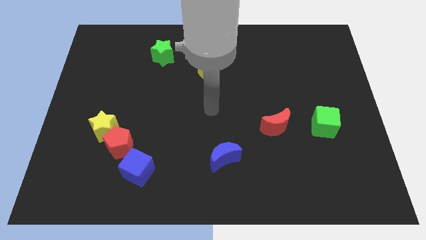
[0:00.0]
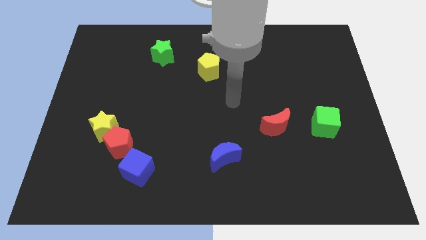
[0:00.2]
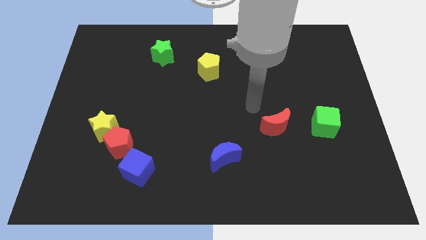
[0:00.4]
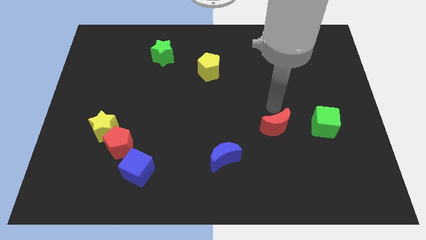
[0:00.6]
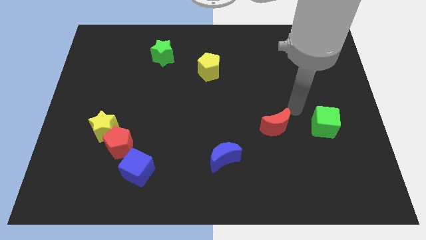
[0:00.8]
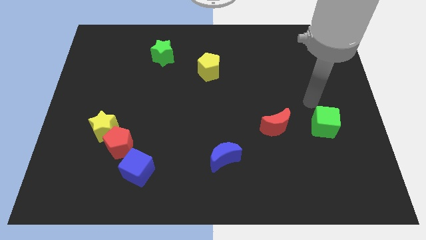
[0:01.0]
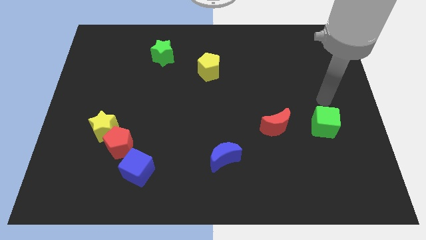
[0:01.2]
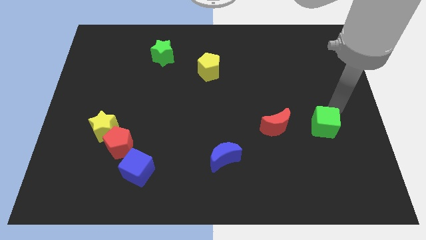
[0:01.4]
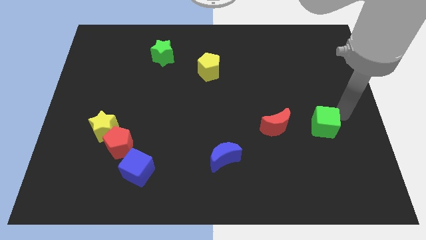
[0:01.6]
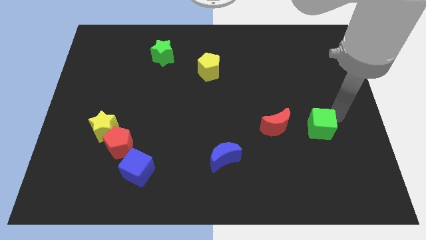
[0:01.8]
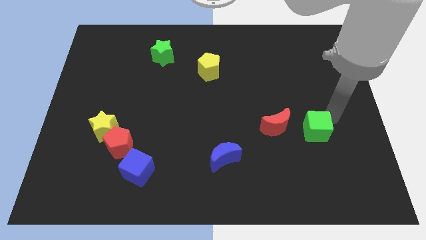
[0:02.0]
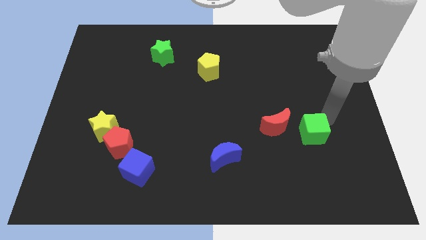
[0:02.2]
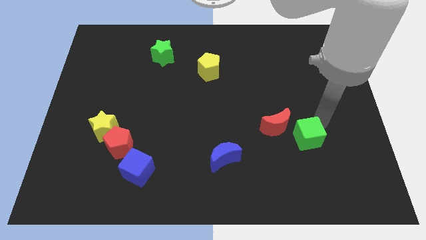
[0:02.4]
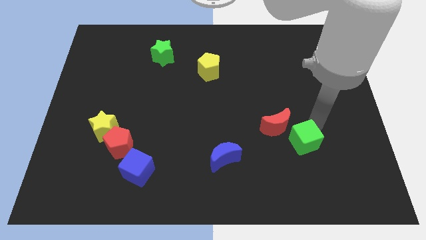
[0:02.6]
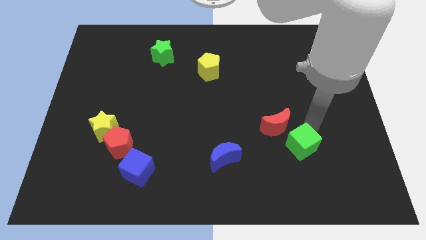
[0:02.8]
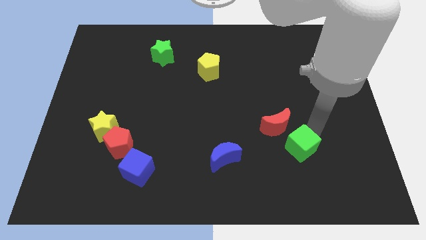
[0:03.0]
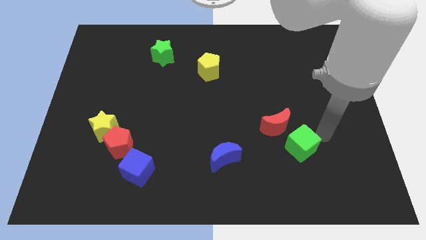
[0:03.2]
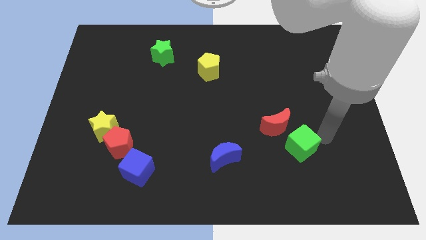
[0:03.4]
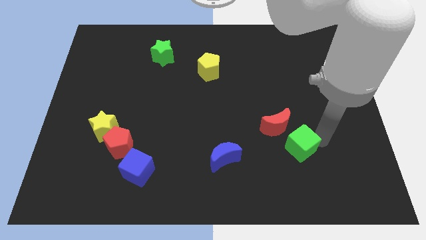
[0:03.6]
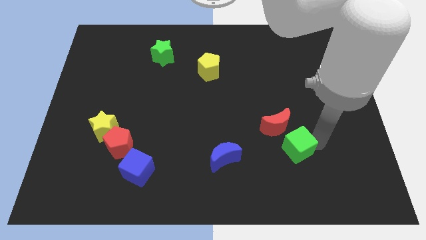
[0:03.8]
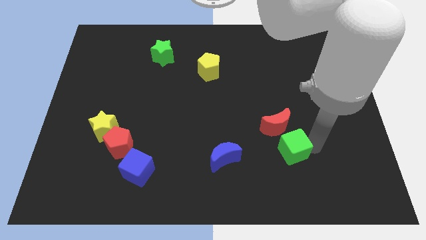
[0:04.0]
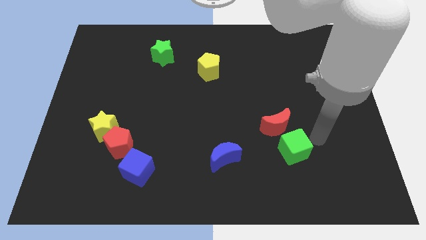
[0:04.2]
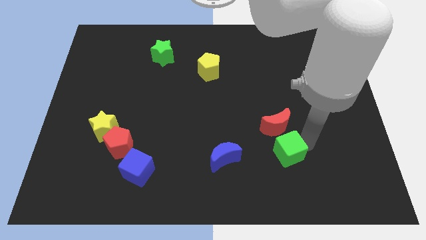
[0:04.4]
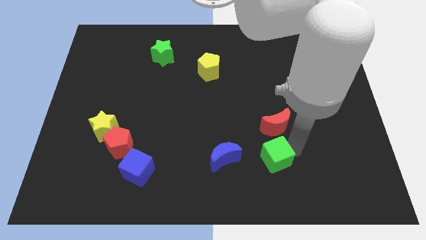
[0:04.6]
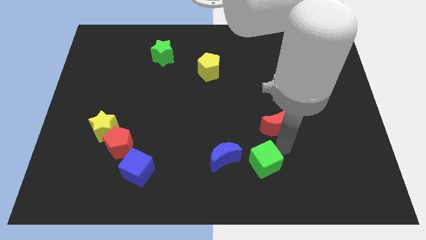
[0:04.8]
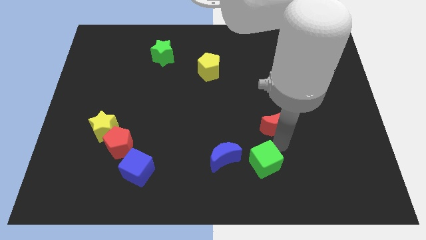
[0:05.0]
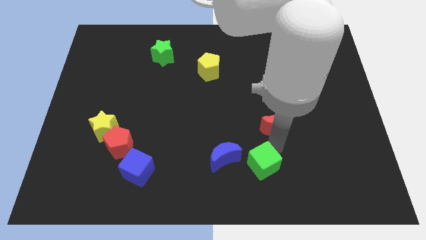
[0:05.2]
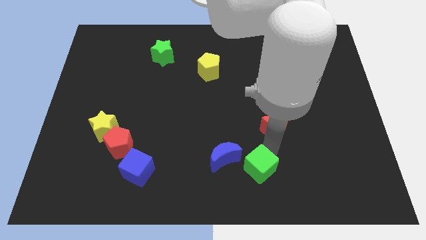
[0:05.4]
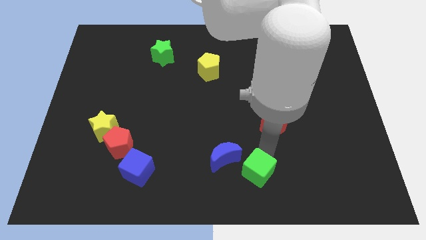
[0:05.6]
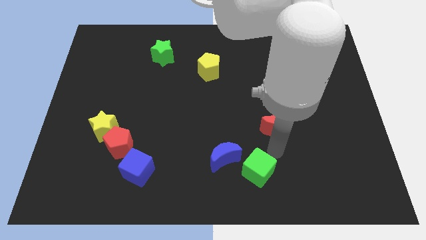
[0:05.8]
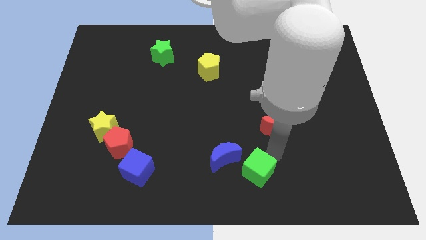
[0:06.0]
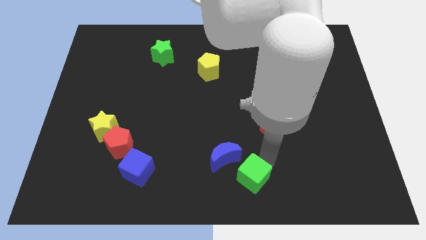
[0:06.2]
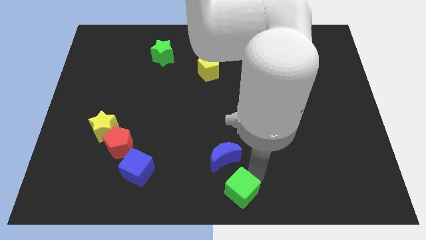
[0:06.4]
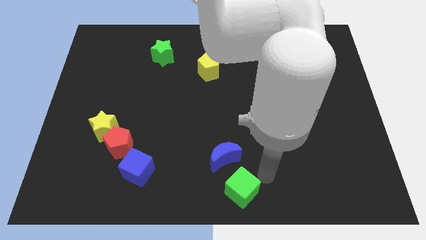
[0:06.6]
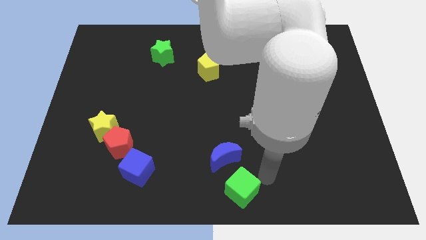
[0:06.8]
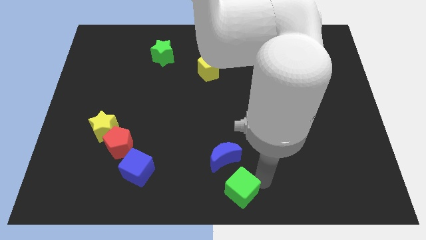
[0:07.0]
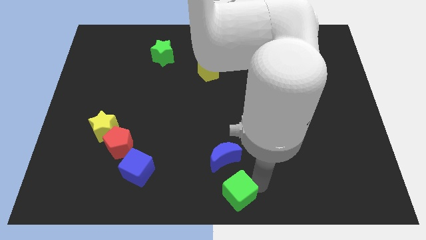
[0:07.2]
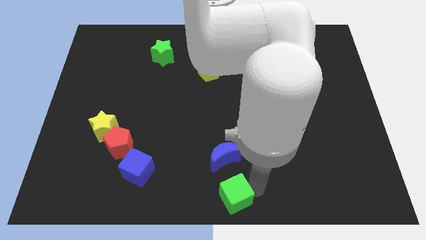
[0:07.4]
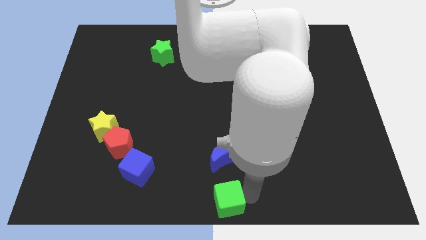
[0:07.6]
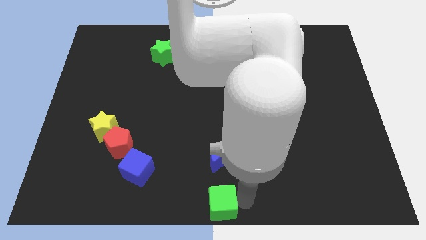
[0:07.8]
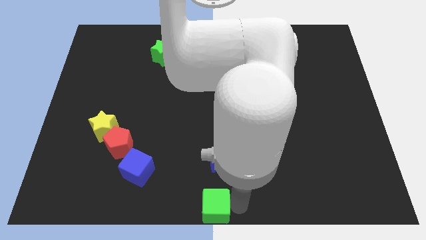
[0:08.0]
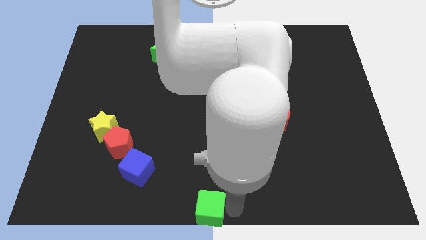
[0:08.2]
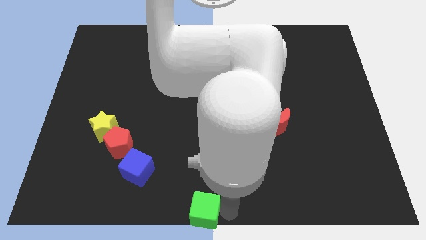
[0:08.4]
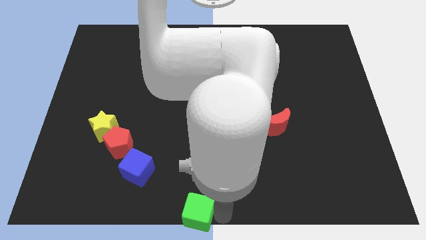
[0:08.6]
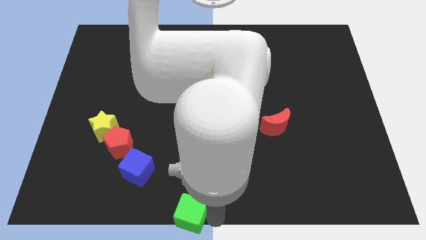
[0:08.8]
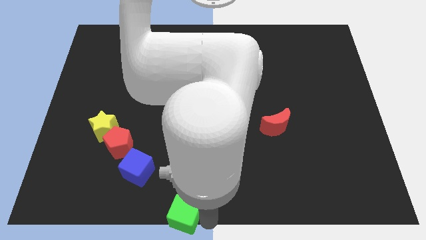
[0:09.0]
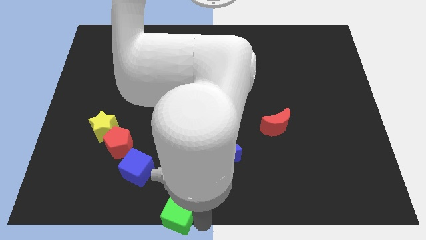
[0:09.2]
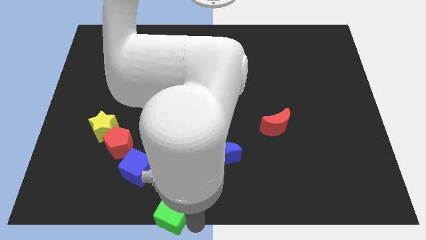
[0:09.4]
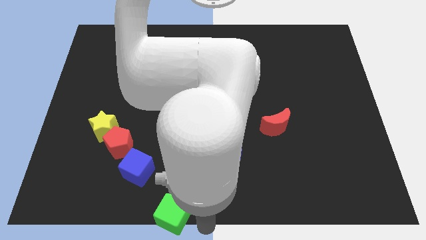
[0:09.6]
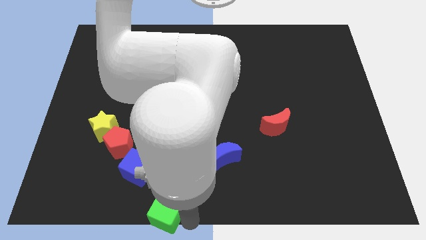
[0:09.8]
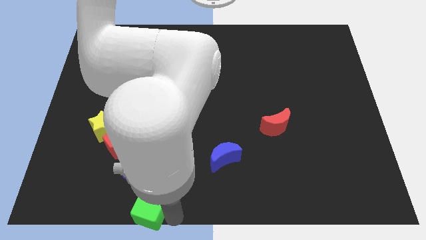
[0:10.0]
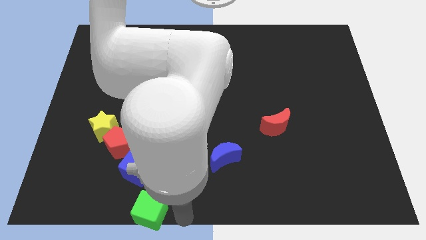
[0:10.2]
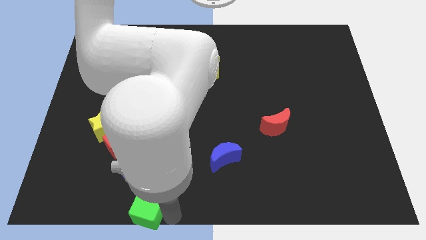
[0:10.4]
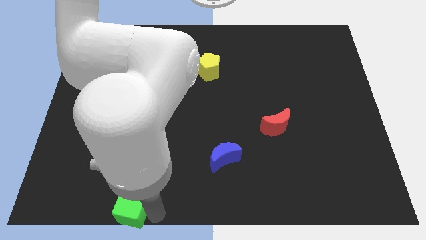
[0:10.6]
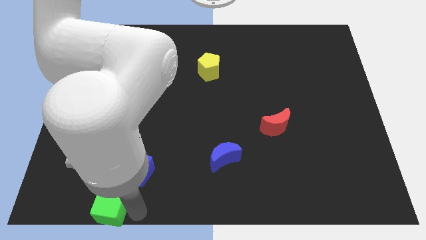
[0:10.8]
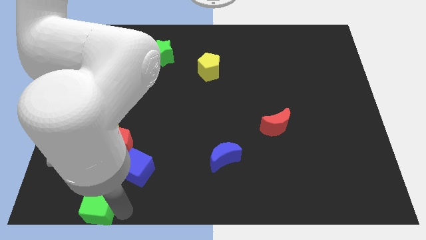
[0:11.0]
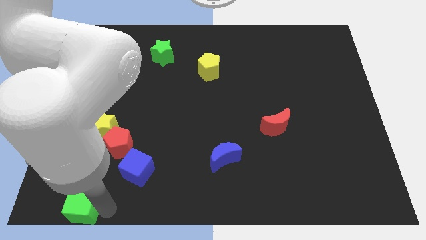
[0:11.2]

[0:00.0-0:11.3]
push the green cube to the lower left corner

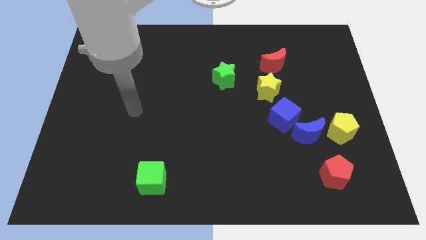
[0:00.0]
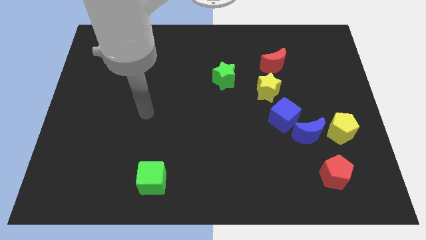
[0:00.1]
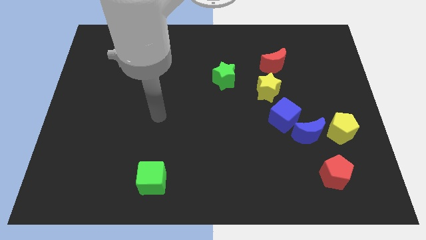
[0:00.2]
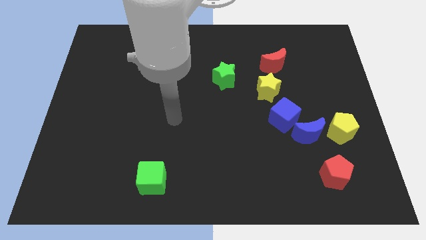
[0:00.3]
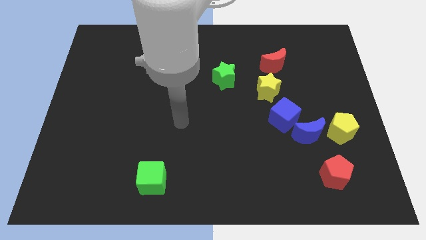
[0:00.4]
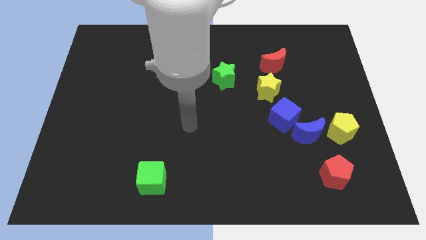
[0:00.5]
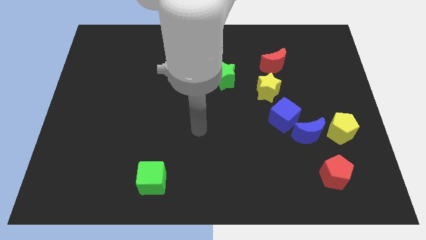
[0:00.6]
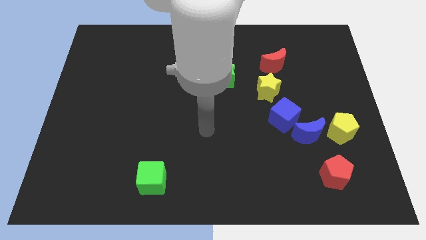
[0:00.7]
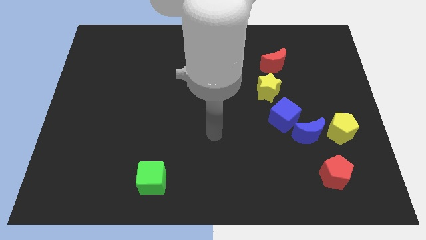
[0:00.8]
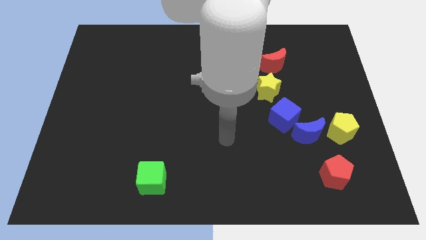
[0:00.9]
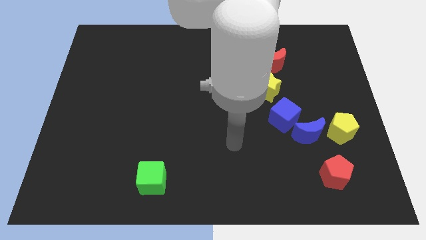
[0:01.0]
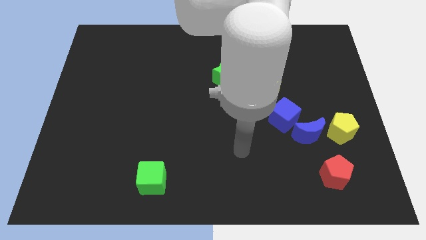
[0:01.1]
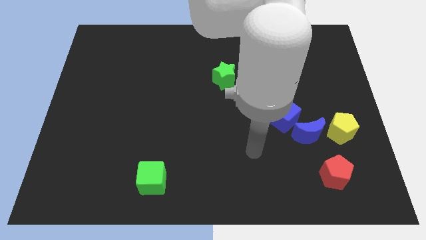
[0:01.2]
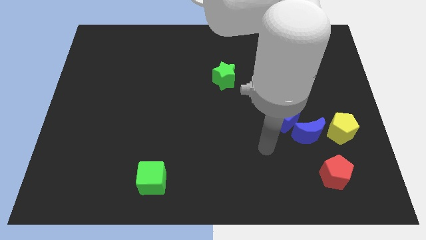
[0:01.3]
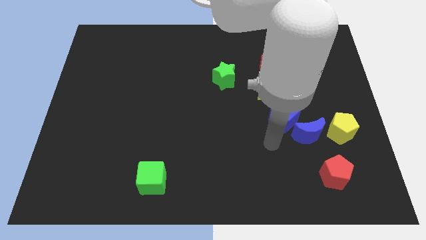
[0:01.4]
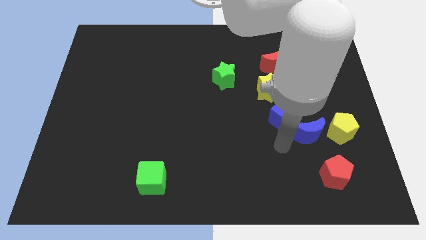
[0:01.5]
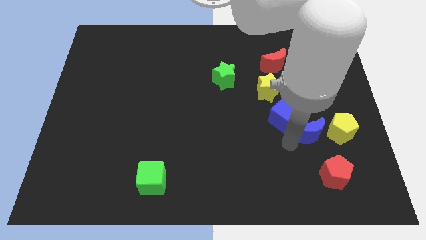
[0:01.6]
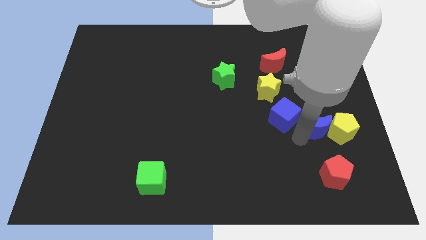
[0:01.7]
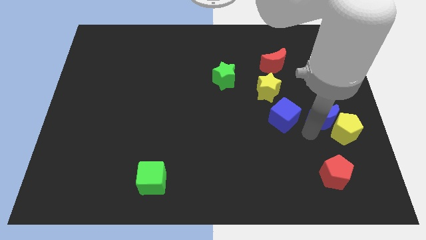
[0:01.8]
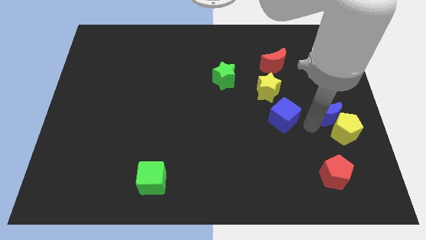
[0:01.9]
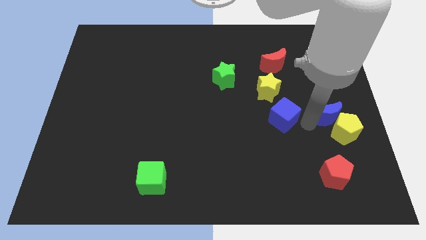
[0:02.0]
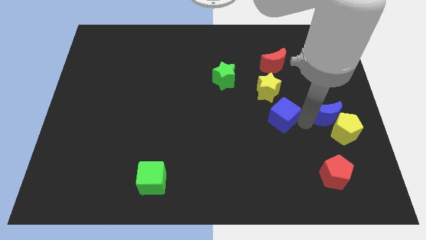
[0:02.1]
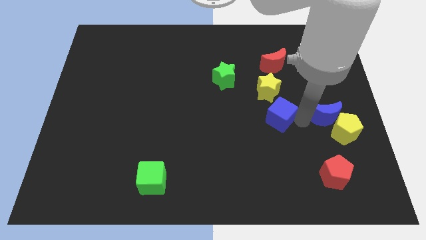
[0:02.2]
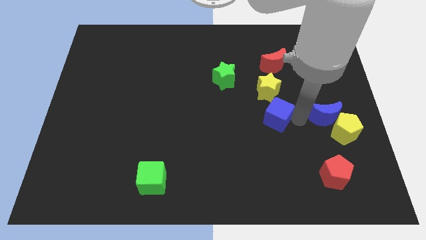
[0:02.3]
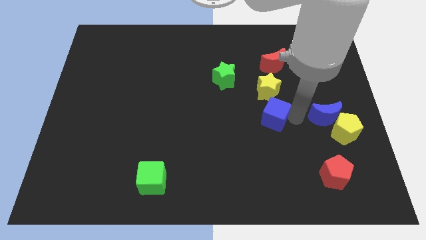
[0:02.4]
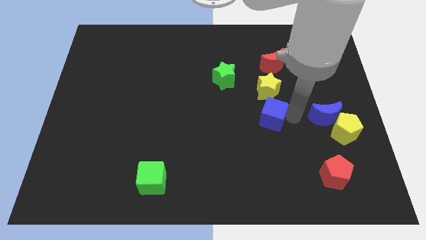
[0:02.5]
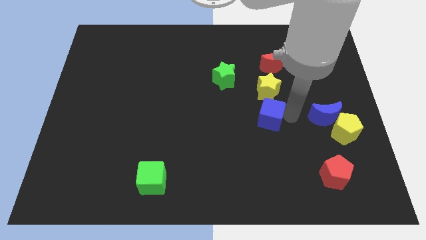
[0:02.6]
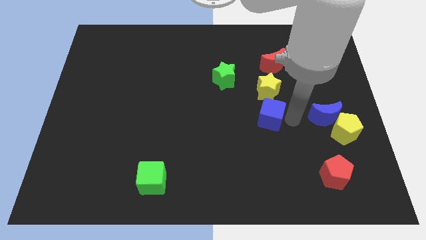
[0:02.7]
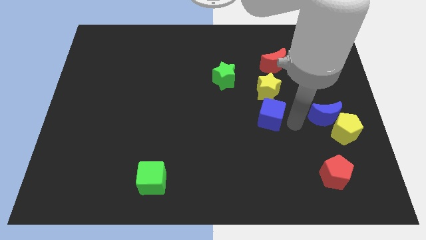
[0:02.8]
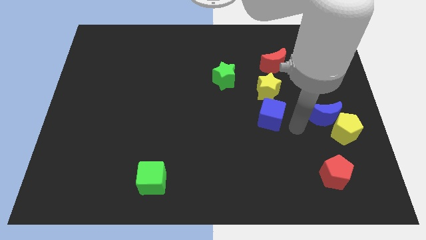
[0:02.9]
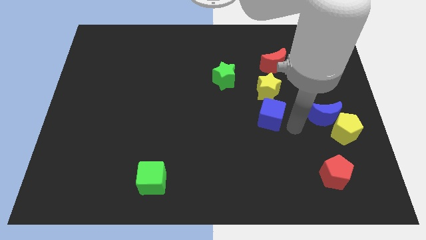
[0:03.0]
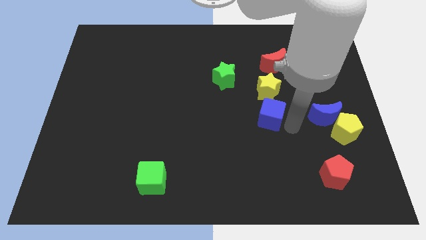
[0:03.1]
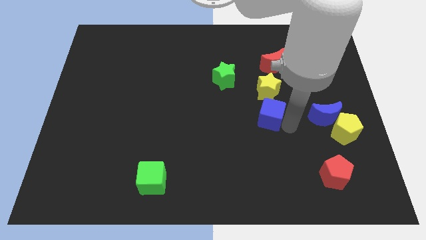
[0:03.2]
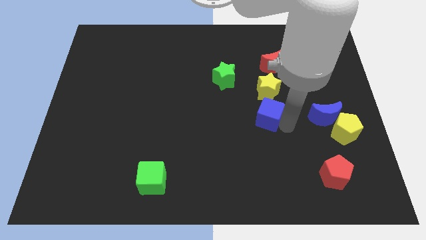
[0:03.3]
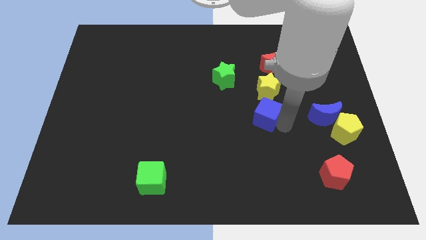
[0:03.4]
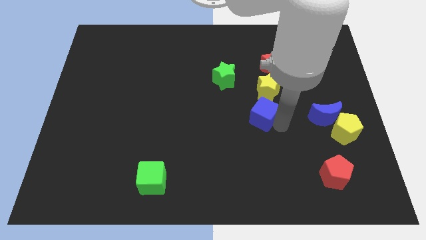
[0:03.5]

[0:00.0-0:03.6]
slide the blue cube to the center of the board
